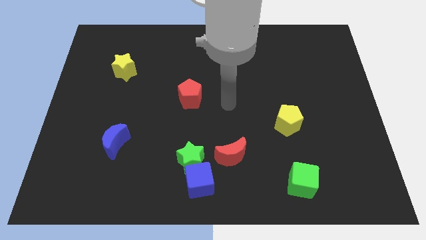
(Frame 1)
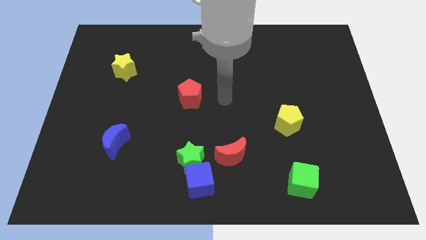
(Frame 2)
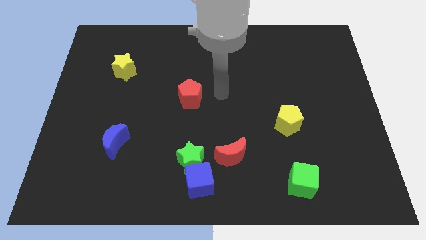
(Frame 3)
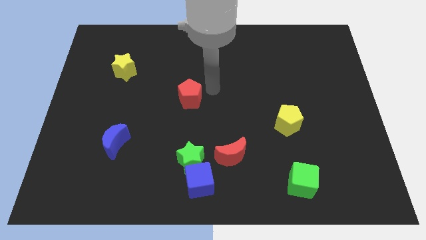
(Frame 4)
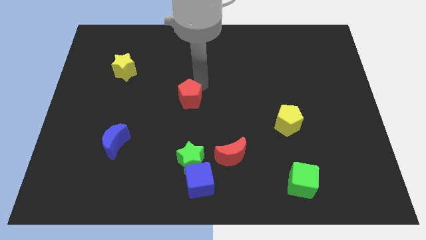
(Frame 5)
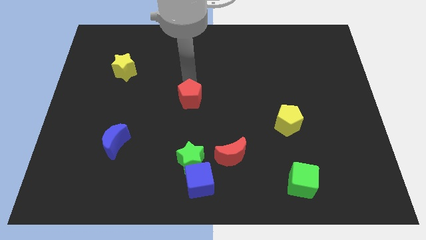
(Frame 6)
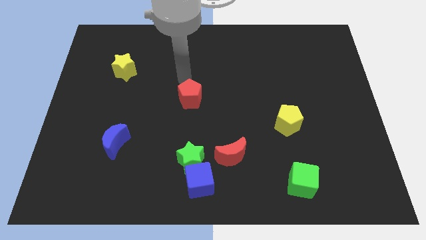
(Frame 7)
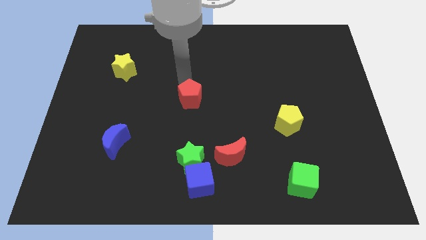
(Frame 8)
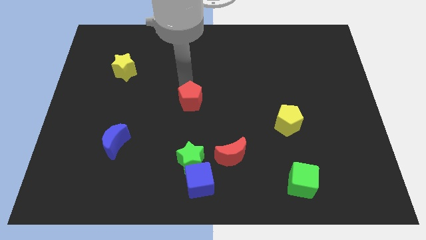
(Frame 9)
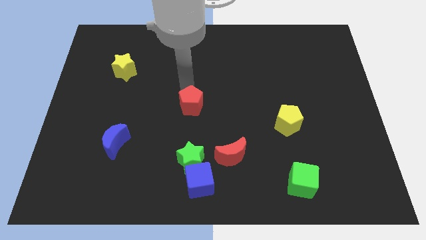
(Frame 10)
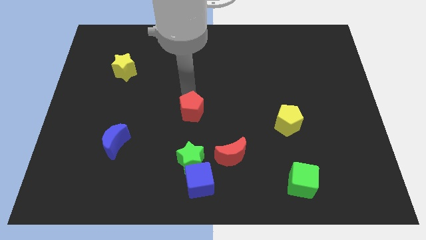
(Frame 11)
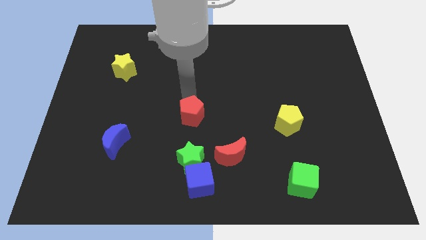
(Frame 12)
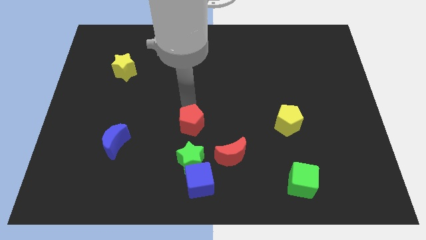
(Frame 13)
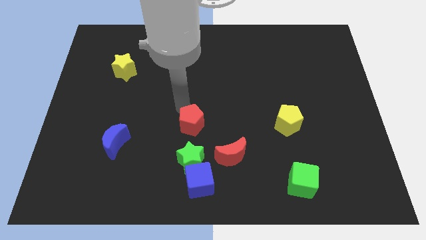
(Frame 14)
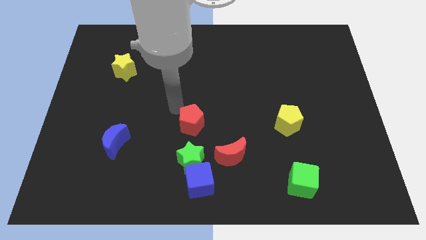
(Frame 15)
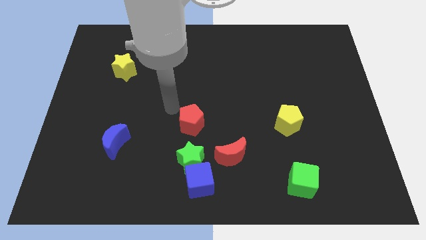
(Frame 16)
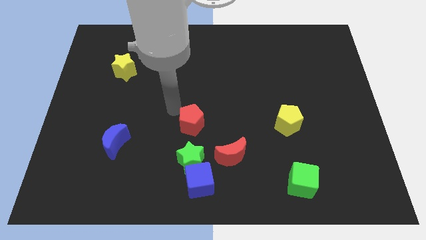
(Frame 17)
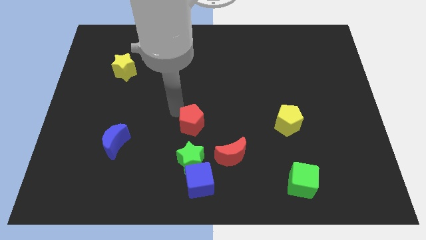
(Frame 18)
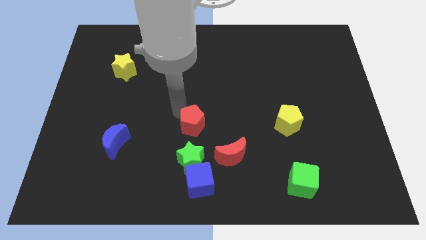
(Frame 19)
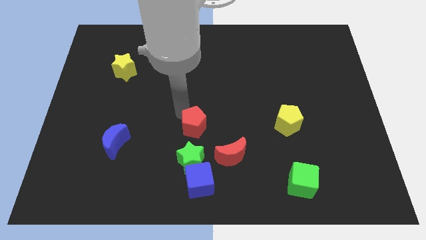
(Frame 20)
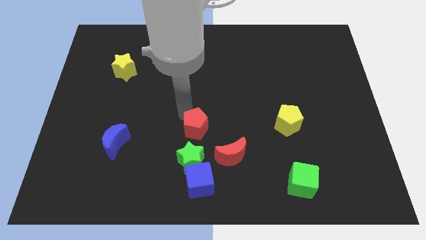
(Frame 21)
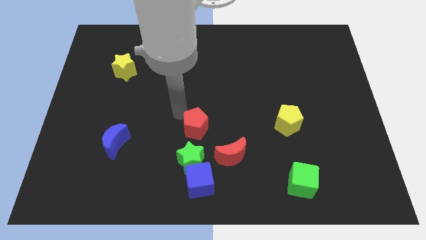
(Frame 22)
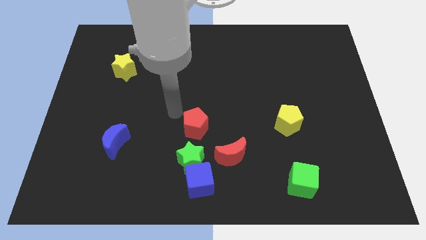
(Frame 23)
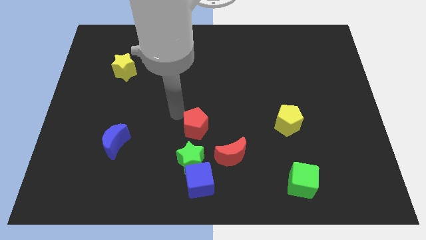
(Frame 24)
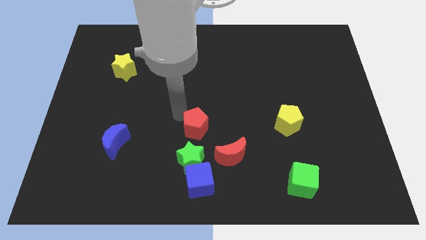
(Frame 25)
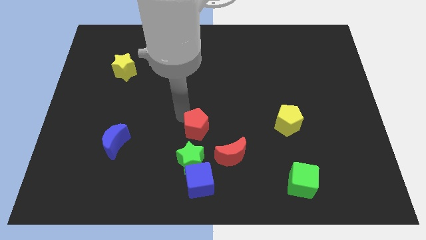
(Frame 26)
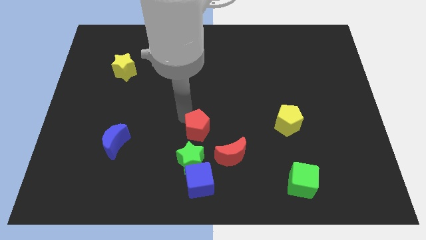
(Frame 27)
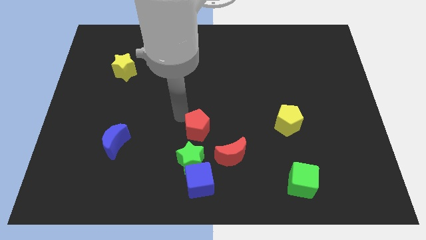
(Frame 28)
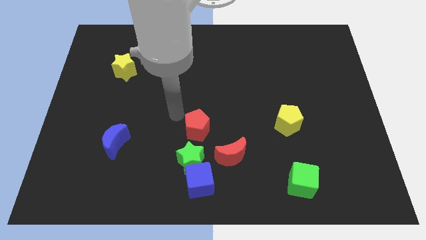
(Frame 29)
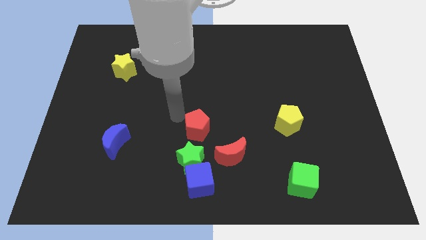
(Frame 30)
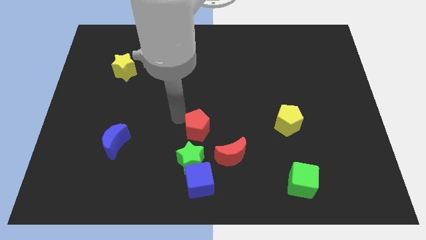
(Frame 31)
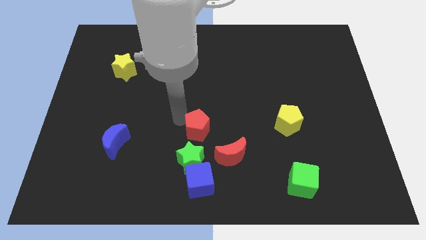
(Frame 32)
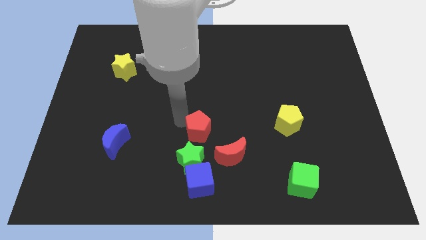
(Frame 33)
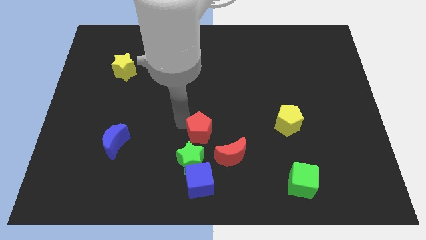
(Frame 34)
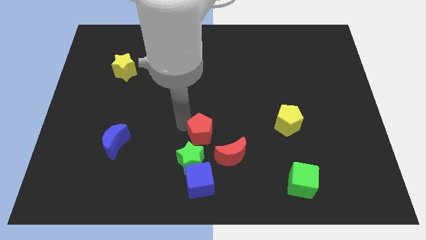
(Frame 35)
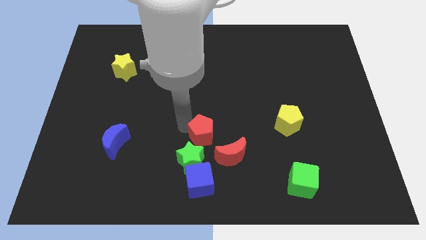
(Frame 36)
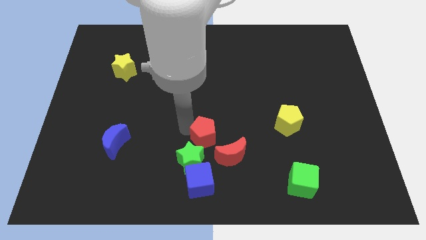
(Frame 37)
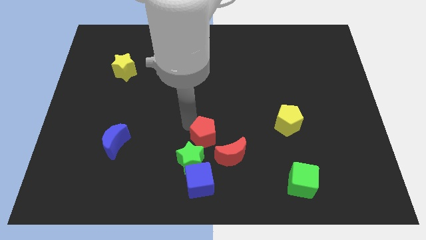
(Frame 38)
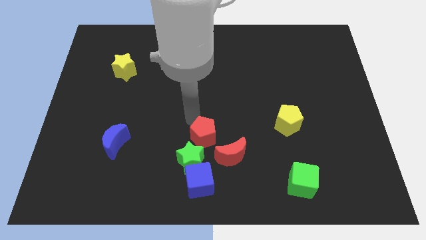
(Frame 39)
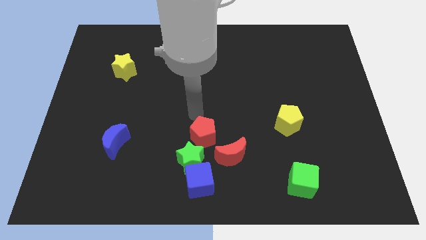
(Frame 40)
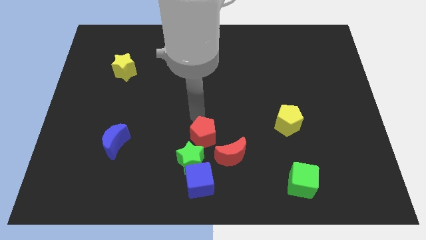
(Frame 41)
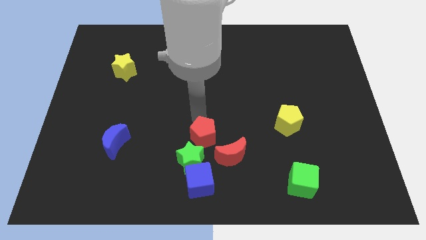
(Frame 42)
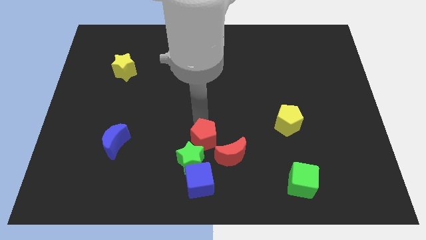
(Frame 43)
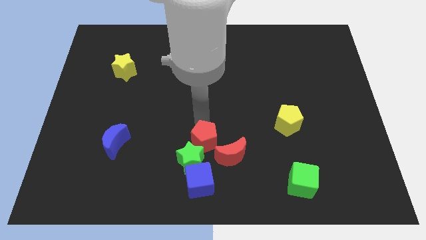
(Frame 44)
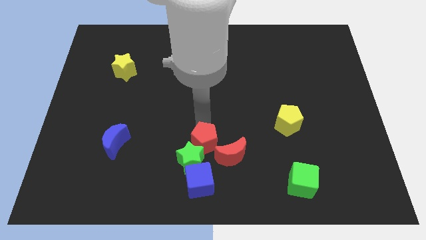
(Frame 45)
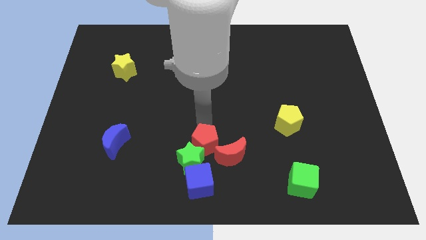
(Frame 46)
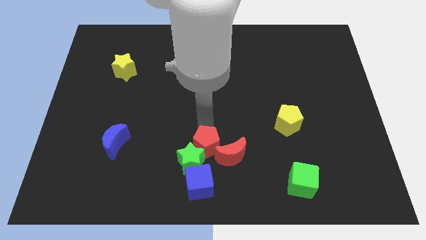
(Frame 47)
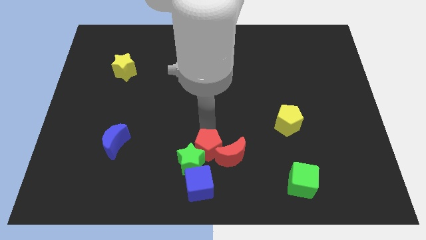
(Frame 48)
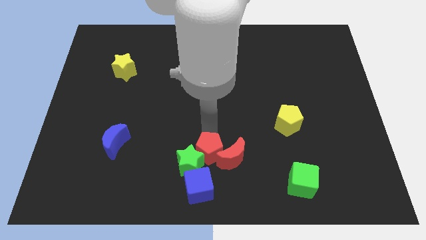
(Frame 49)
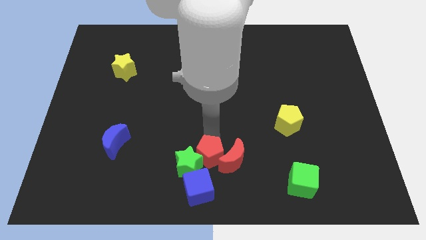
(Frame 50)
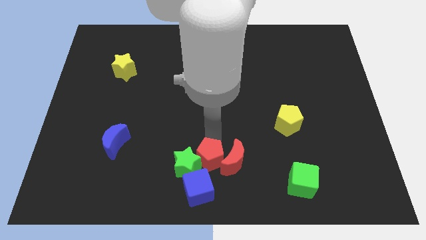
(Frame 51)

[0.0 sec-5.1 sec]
push the red pentagon to the bottom right of the green star

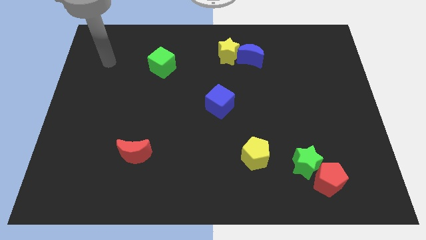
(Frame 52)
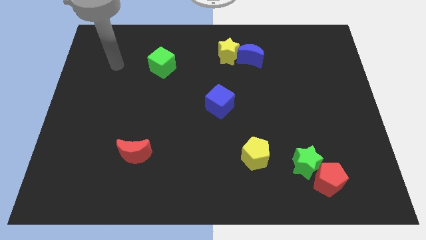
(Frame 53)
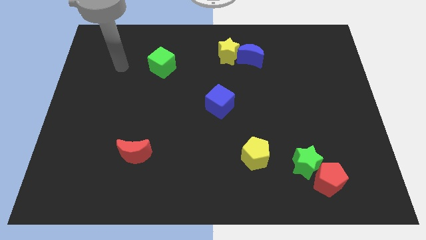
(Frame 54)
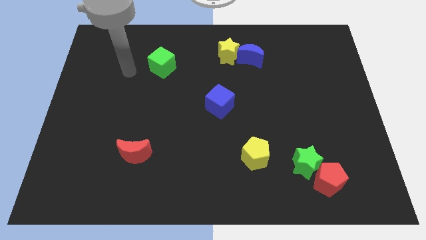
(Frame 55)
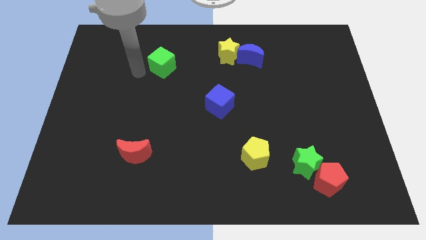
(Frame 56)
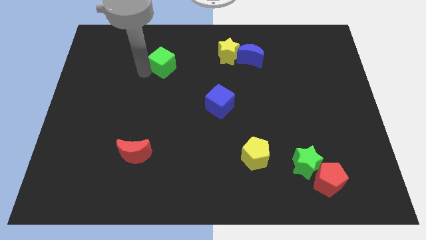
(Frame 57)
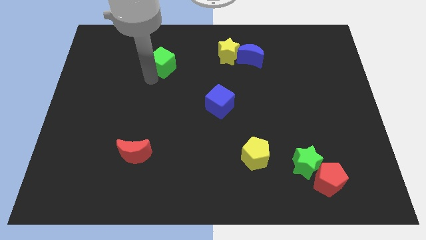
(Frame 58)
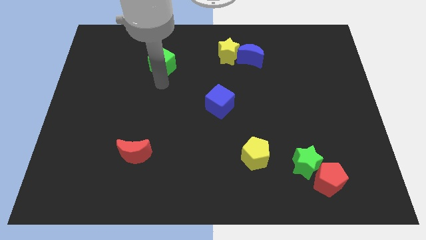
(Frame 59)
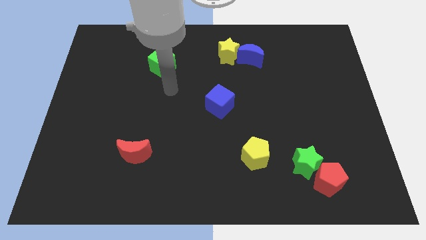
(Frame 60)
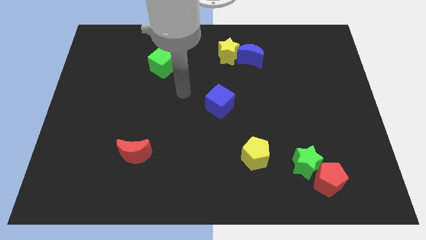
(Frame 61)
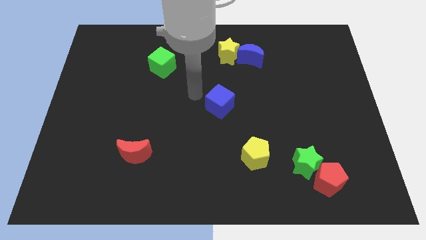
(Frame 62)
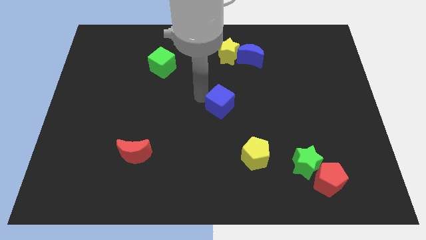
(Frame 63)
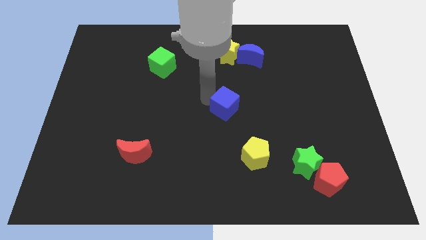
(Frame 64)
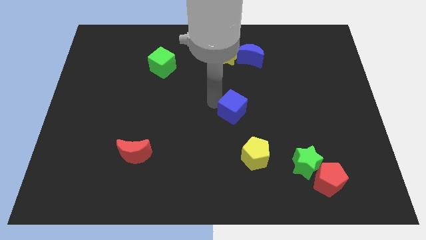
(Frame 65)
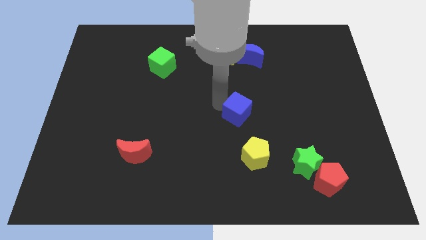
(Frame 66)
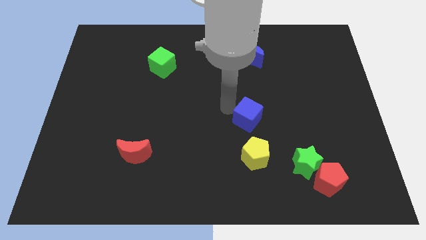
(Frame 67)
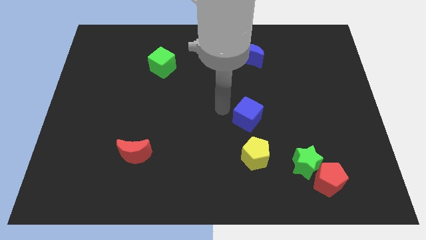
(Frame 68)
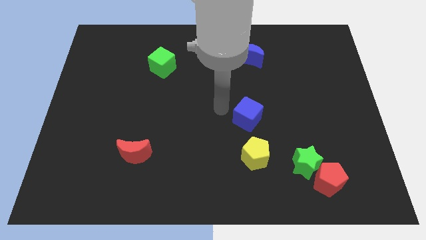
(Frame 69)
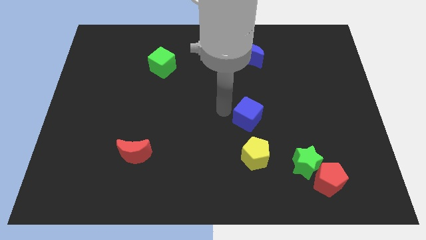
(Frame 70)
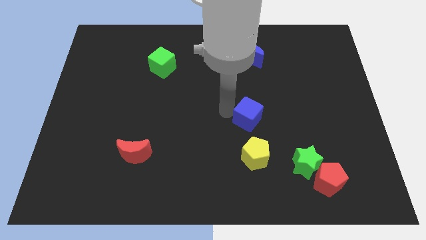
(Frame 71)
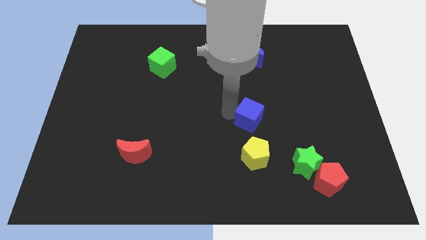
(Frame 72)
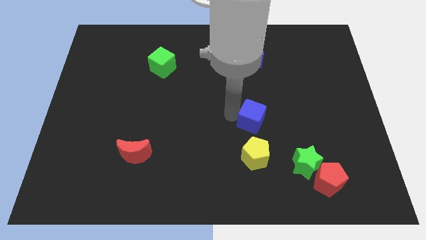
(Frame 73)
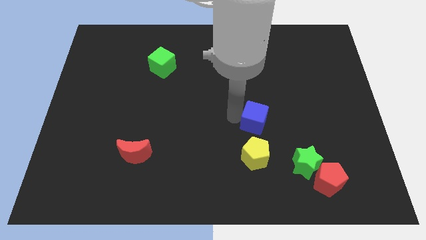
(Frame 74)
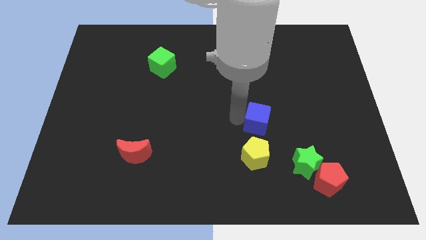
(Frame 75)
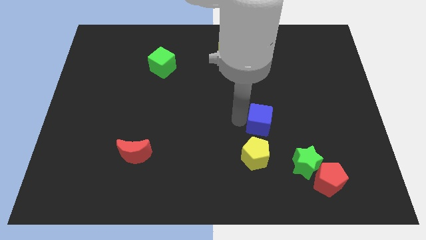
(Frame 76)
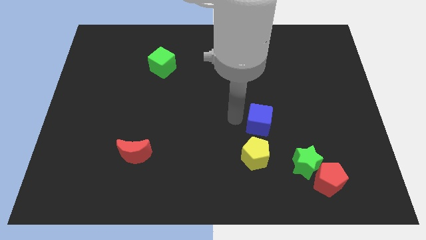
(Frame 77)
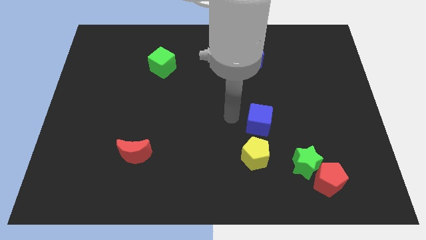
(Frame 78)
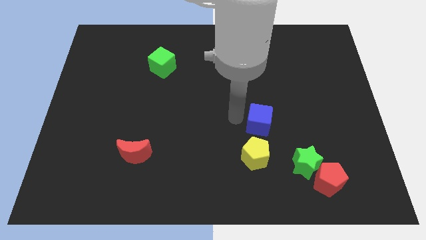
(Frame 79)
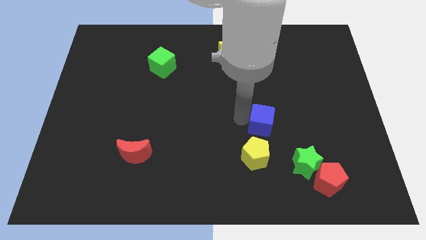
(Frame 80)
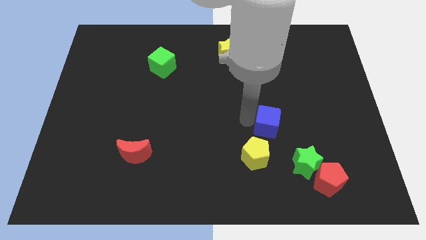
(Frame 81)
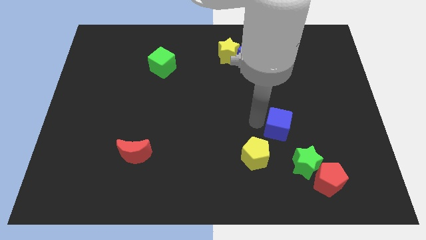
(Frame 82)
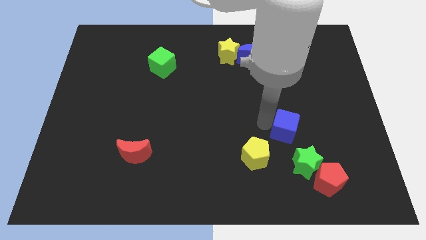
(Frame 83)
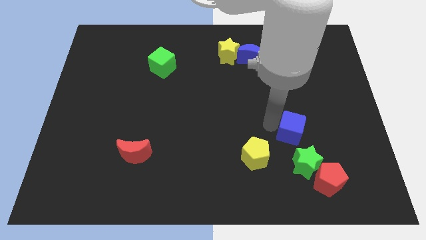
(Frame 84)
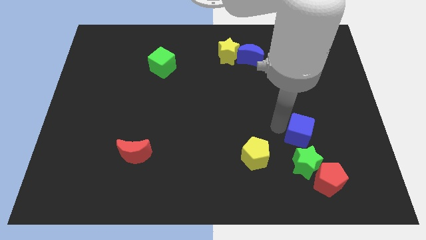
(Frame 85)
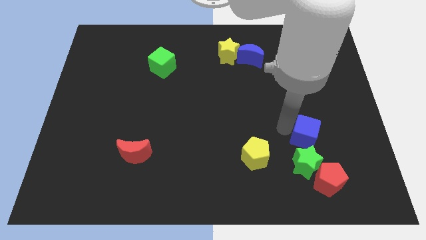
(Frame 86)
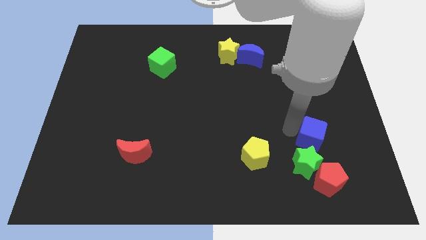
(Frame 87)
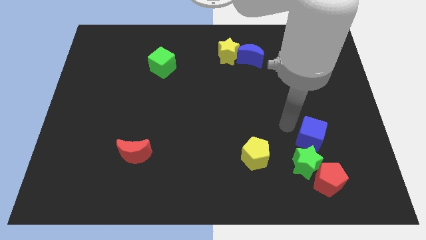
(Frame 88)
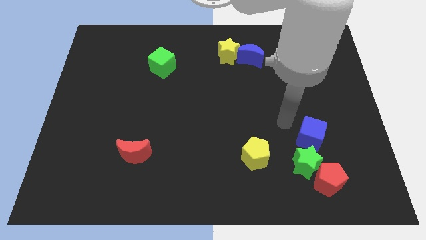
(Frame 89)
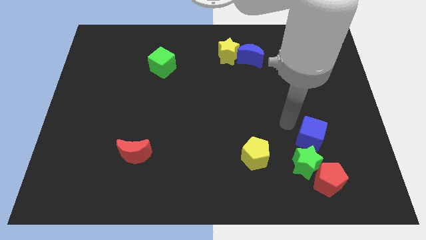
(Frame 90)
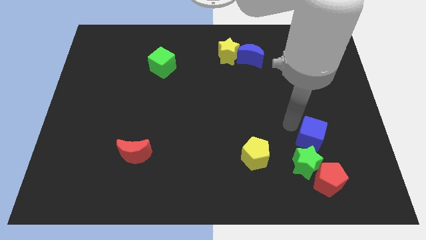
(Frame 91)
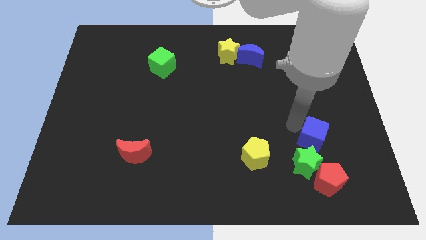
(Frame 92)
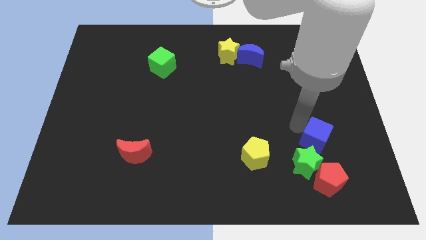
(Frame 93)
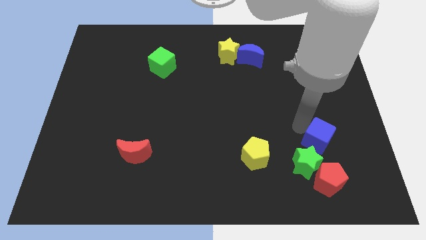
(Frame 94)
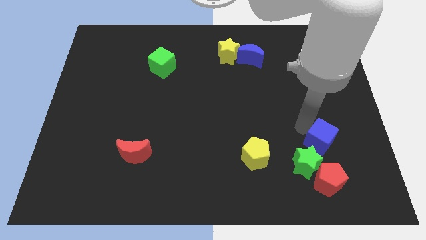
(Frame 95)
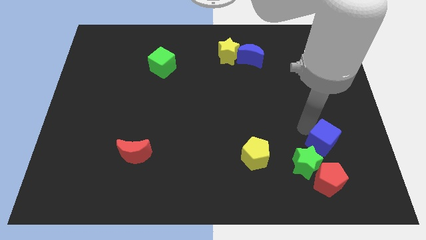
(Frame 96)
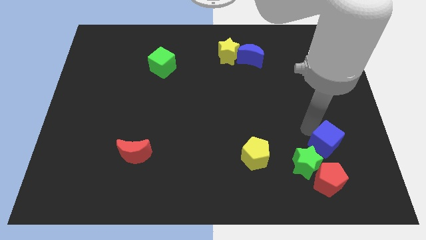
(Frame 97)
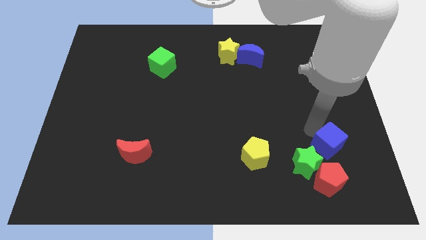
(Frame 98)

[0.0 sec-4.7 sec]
put the blue cube to the top right side of the red pentagon
